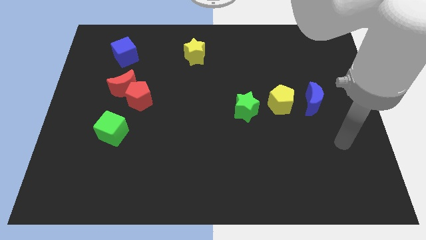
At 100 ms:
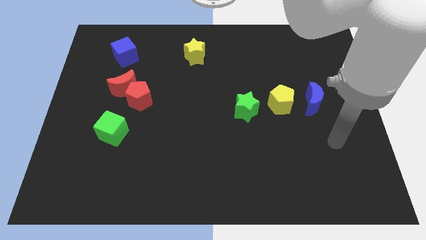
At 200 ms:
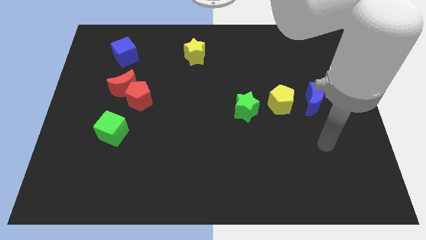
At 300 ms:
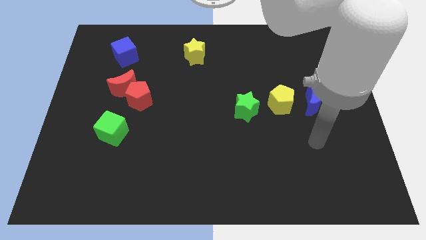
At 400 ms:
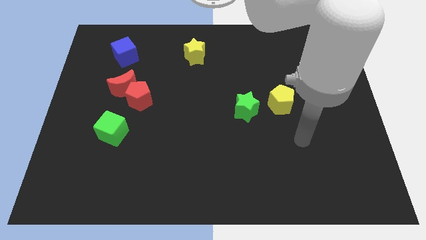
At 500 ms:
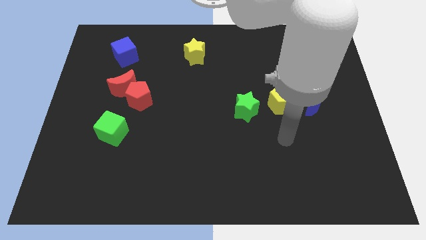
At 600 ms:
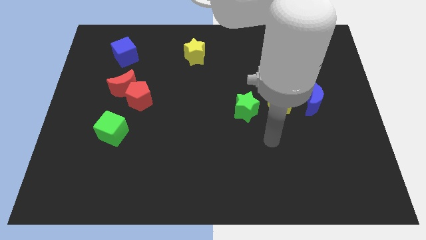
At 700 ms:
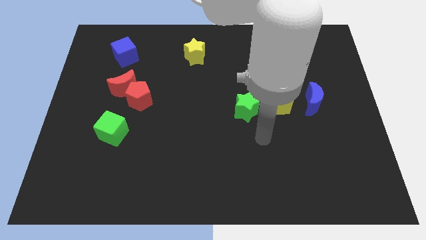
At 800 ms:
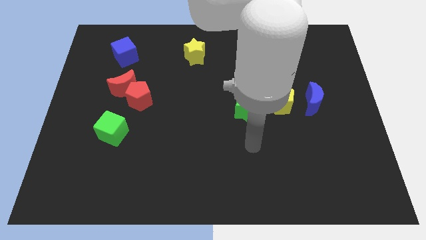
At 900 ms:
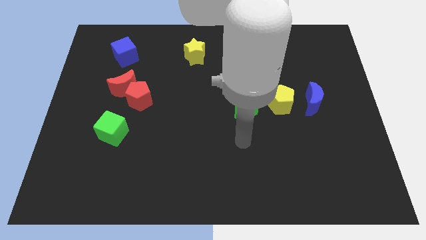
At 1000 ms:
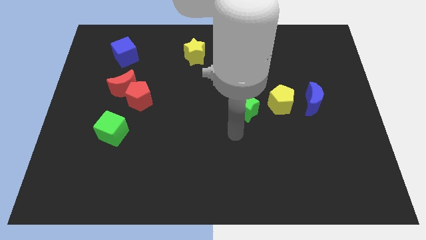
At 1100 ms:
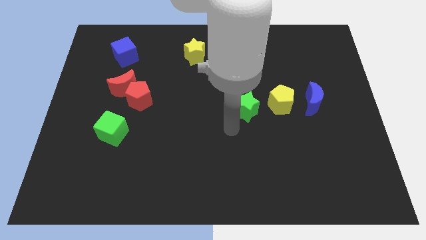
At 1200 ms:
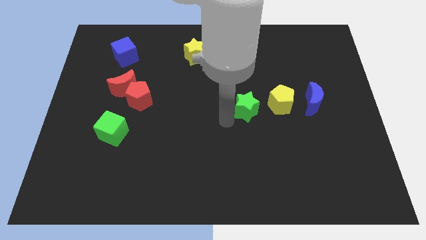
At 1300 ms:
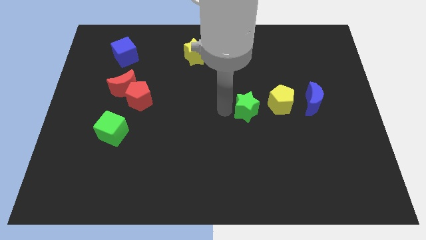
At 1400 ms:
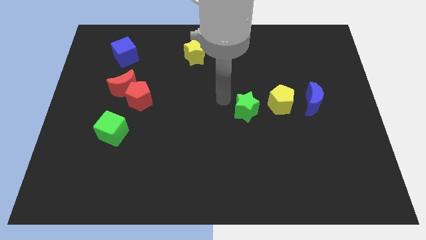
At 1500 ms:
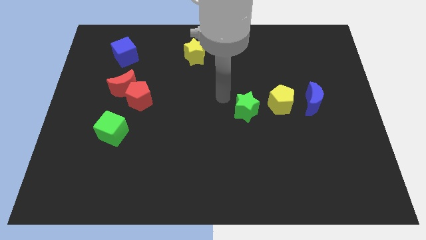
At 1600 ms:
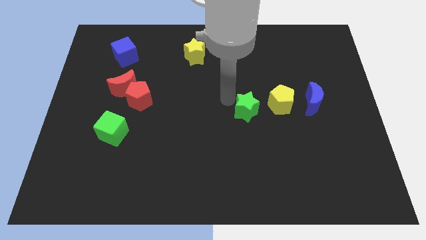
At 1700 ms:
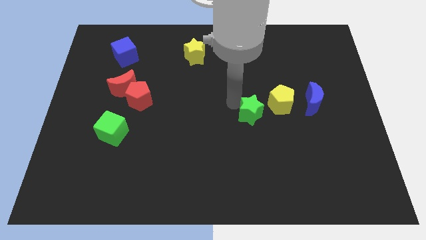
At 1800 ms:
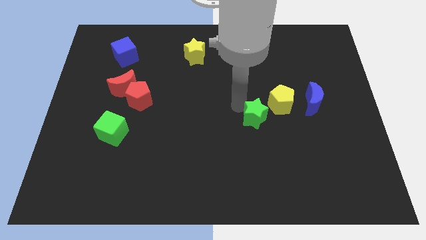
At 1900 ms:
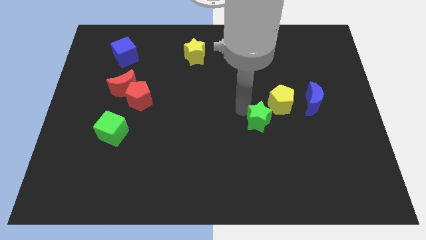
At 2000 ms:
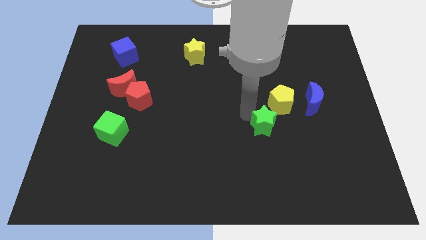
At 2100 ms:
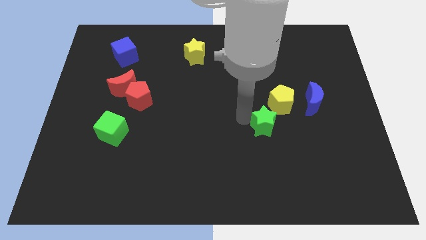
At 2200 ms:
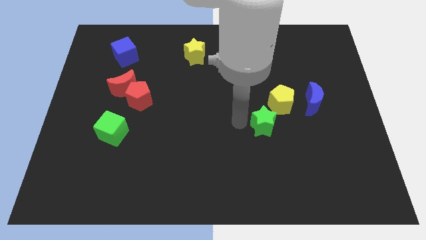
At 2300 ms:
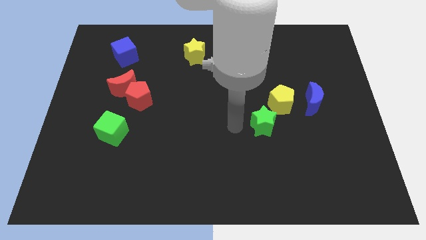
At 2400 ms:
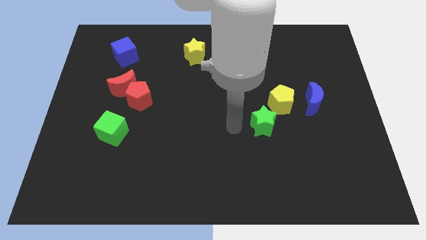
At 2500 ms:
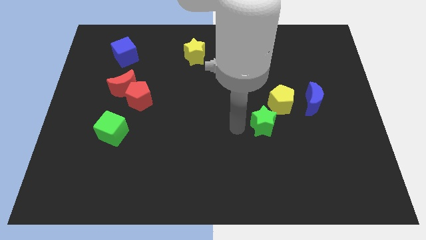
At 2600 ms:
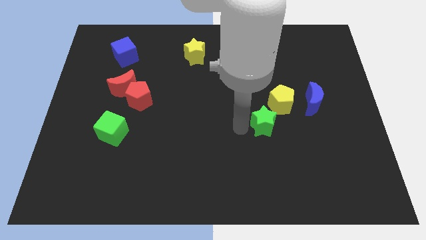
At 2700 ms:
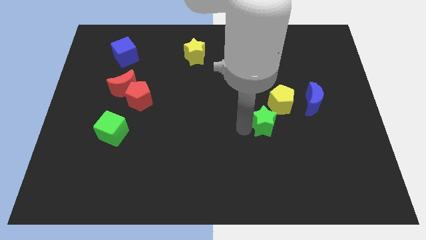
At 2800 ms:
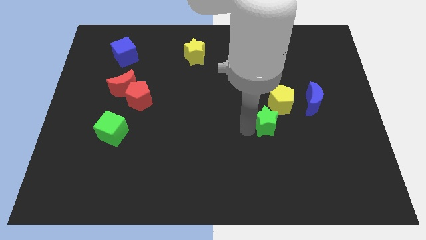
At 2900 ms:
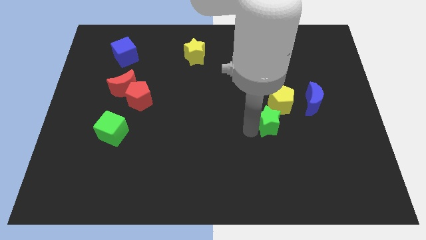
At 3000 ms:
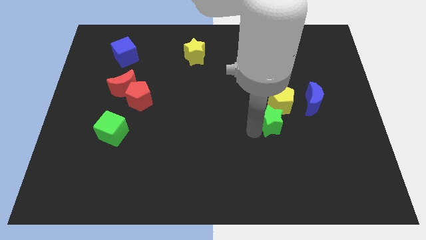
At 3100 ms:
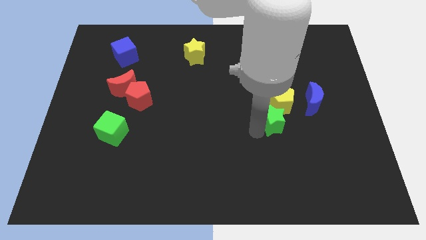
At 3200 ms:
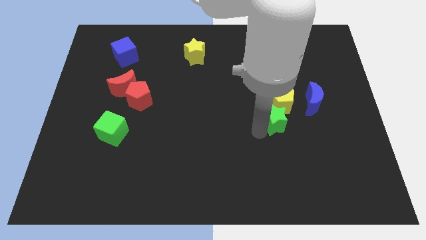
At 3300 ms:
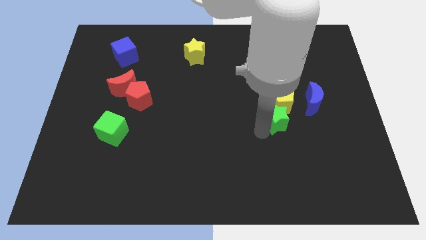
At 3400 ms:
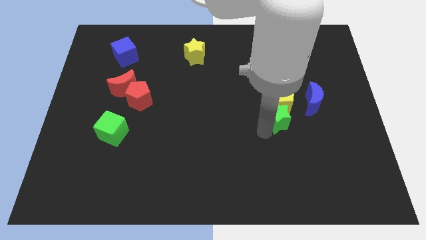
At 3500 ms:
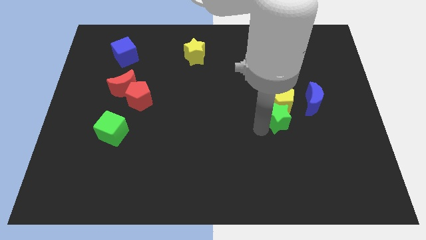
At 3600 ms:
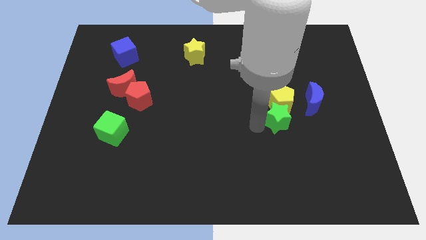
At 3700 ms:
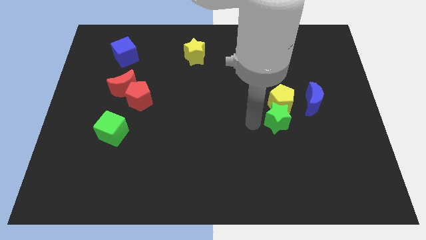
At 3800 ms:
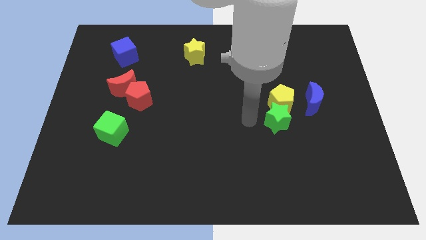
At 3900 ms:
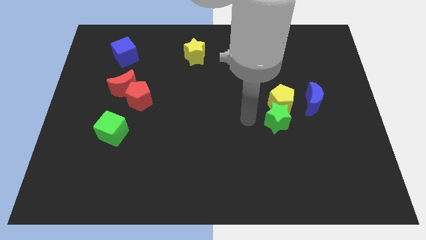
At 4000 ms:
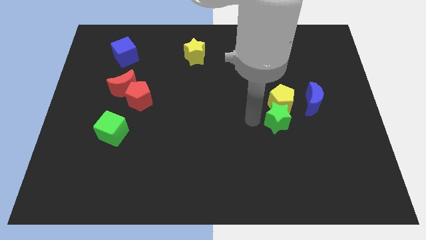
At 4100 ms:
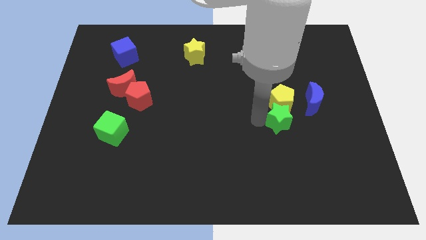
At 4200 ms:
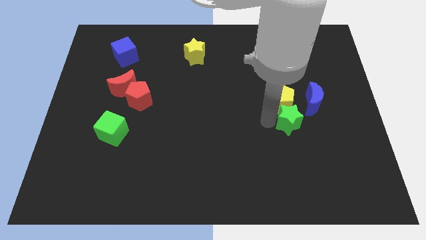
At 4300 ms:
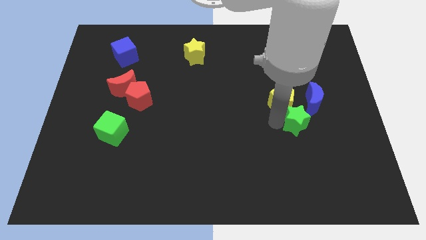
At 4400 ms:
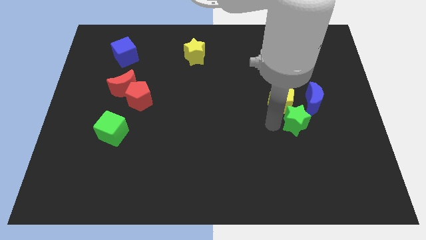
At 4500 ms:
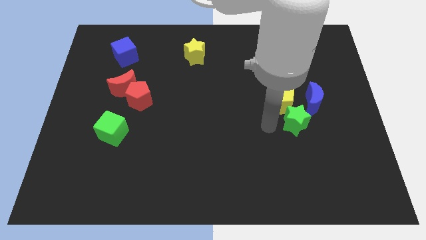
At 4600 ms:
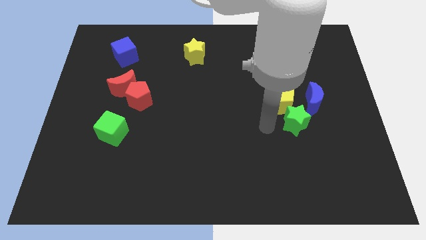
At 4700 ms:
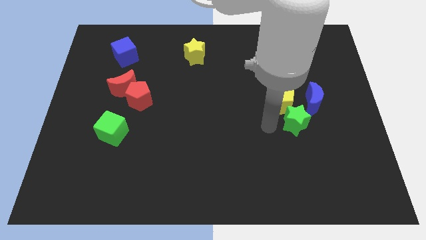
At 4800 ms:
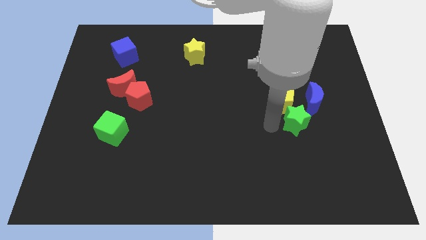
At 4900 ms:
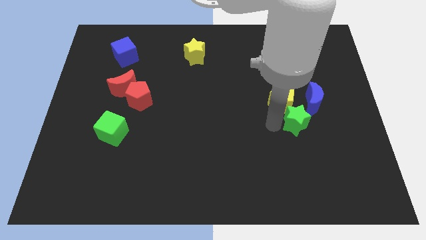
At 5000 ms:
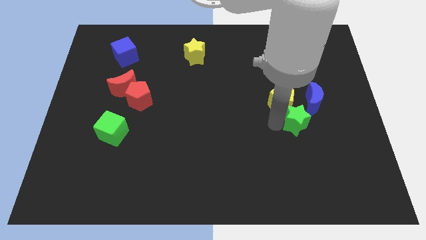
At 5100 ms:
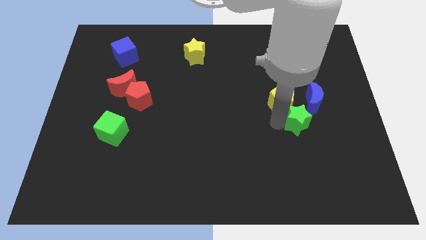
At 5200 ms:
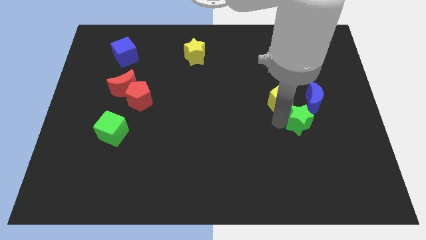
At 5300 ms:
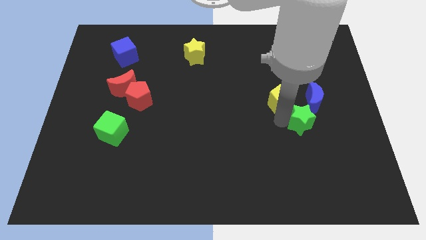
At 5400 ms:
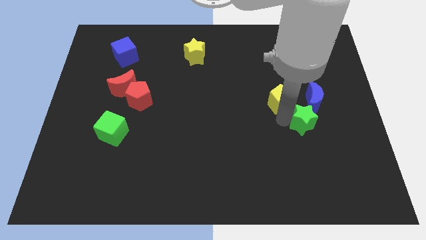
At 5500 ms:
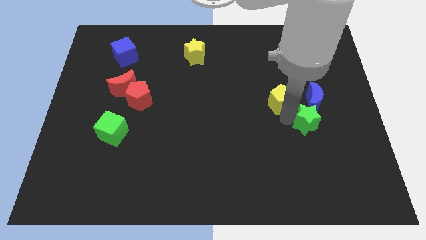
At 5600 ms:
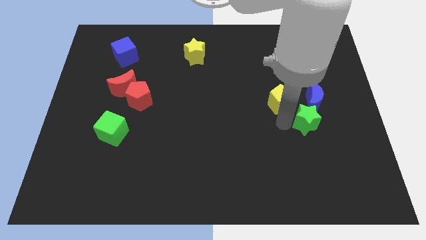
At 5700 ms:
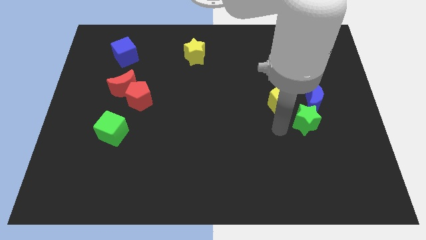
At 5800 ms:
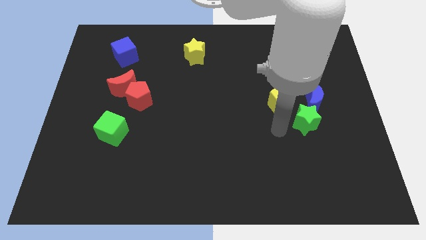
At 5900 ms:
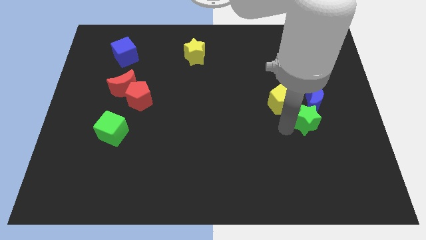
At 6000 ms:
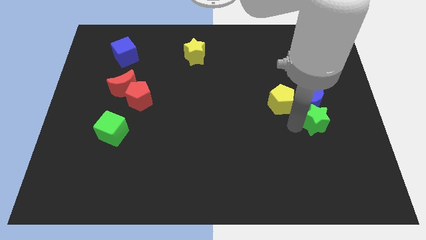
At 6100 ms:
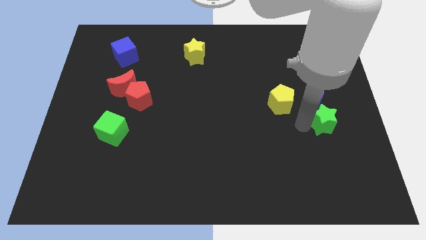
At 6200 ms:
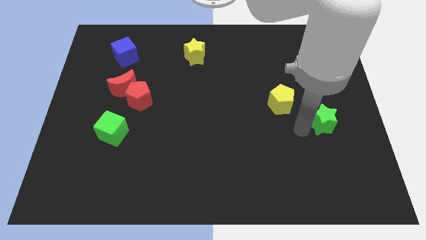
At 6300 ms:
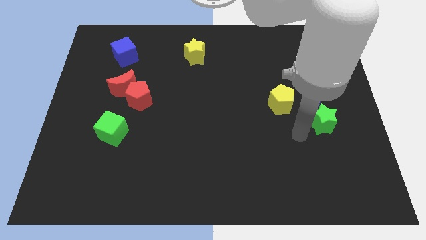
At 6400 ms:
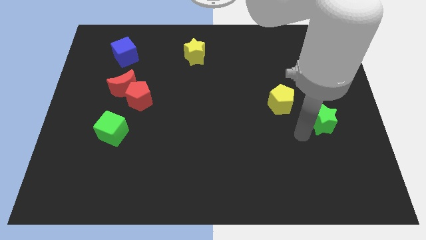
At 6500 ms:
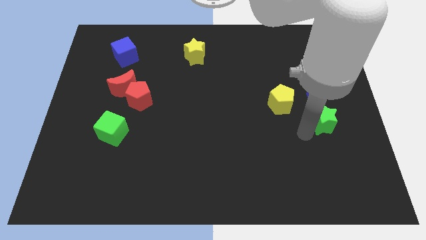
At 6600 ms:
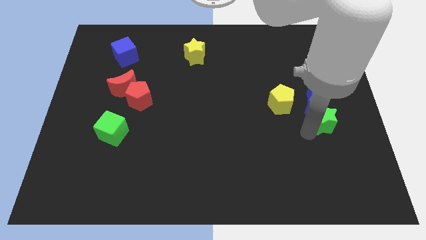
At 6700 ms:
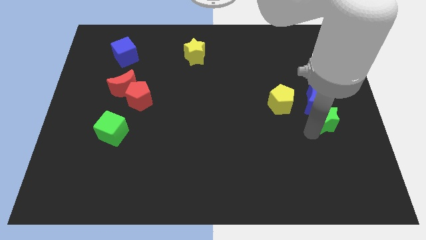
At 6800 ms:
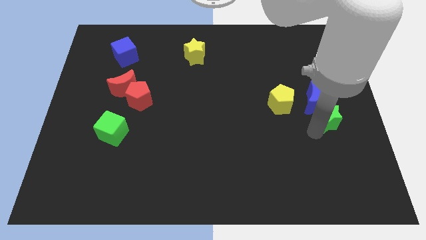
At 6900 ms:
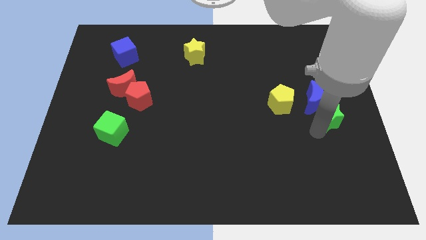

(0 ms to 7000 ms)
push the green star to the center right
